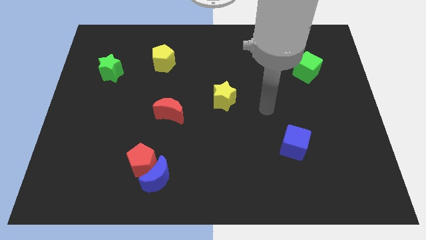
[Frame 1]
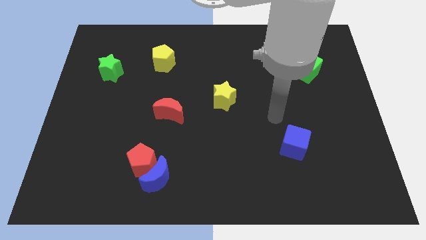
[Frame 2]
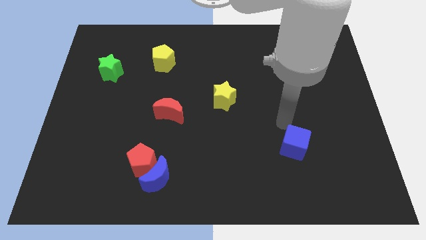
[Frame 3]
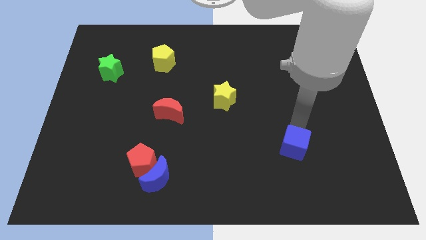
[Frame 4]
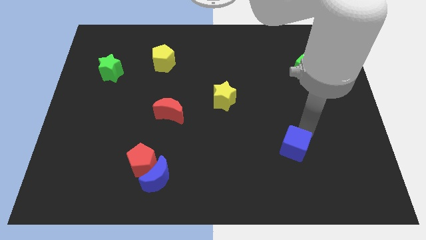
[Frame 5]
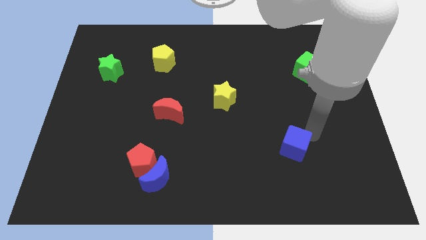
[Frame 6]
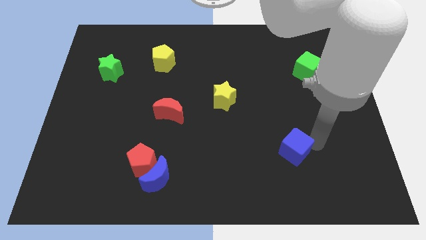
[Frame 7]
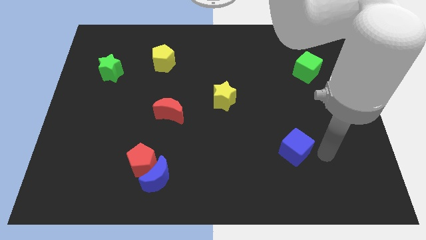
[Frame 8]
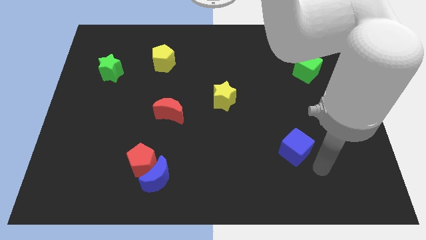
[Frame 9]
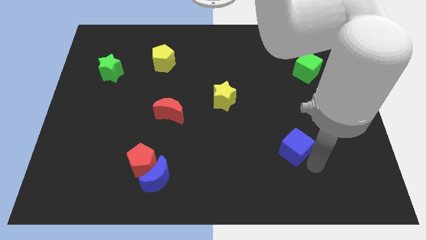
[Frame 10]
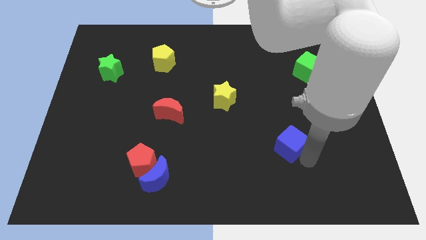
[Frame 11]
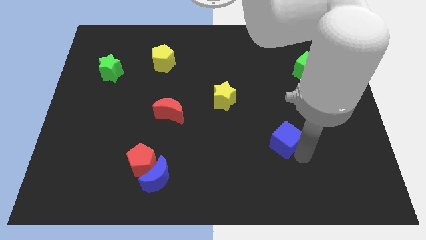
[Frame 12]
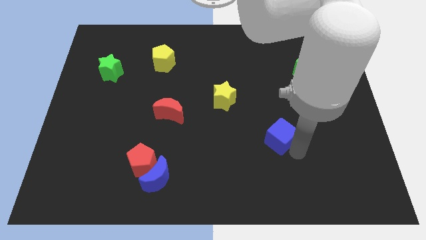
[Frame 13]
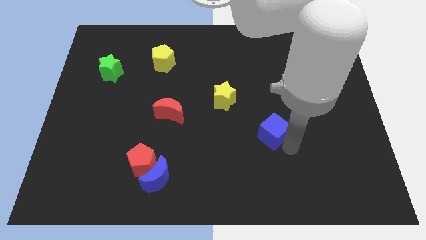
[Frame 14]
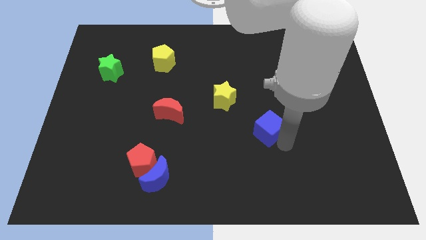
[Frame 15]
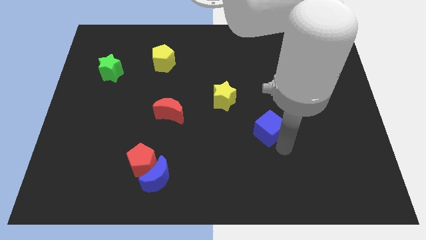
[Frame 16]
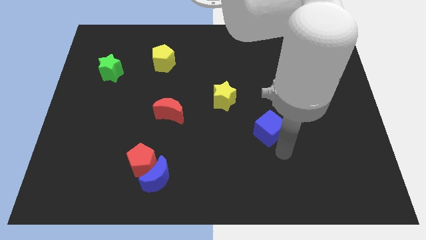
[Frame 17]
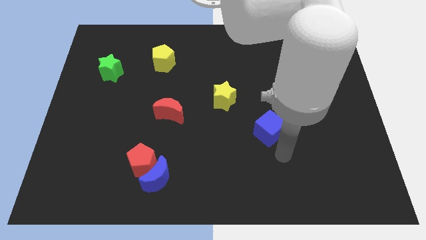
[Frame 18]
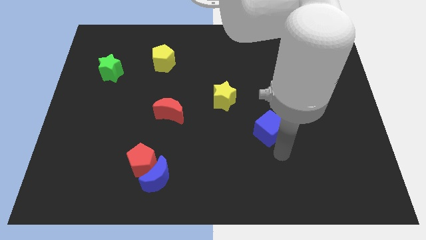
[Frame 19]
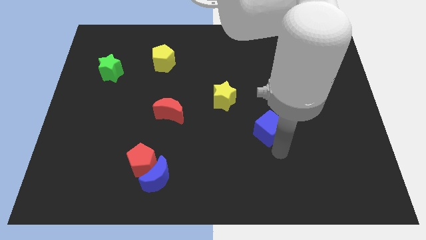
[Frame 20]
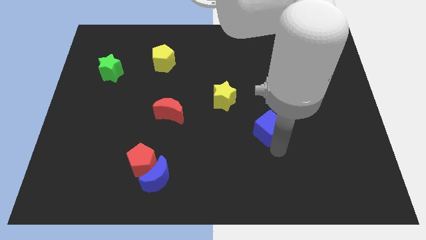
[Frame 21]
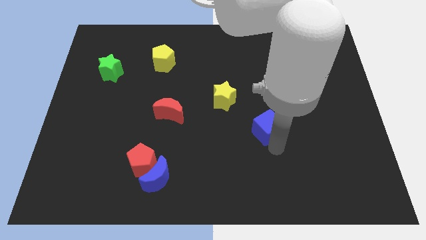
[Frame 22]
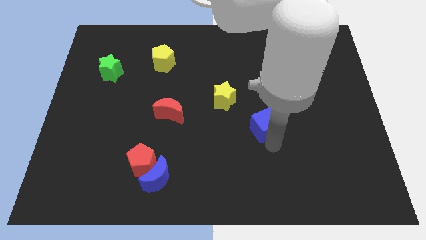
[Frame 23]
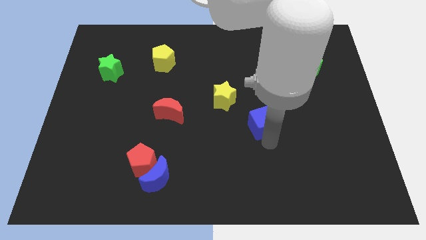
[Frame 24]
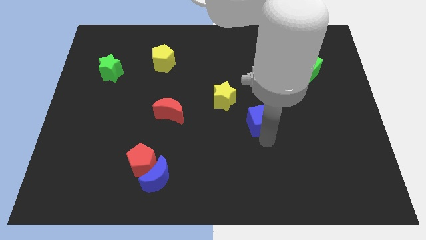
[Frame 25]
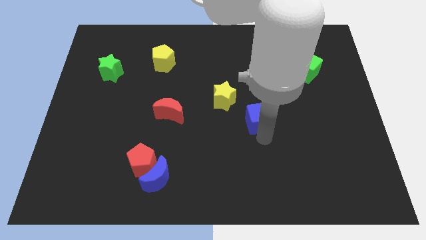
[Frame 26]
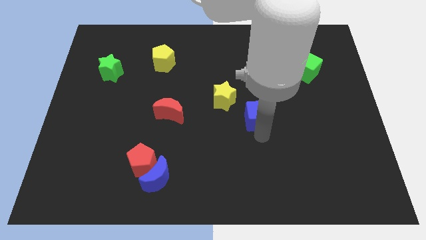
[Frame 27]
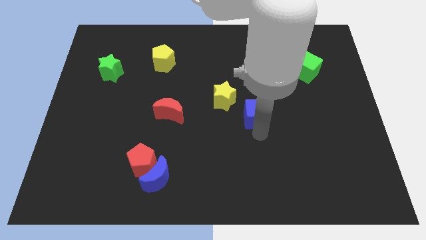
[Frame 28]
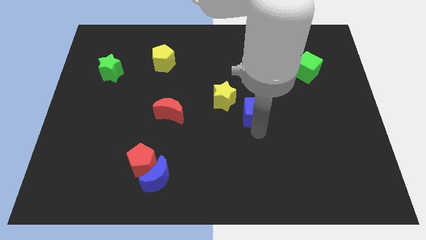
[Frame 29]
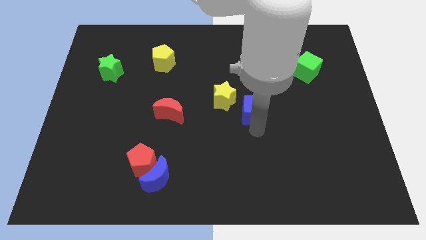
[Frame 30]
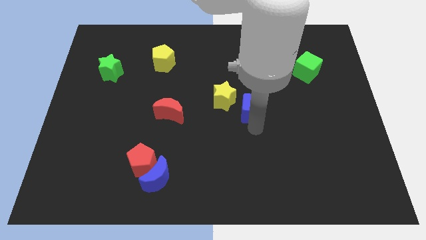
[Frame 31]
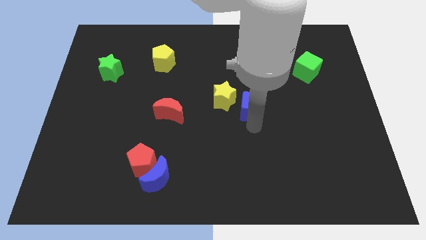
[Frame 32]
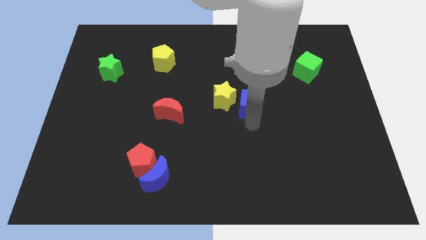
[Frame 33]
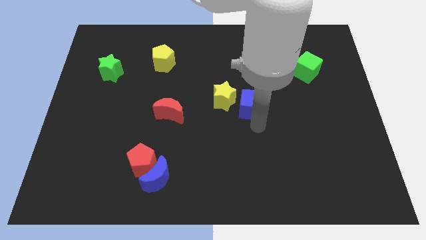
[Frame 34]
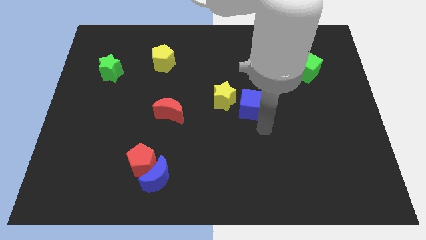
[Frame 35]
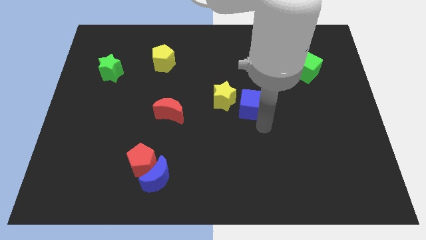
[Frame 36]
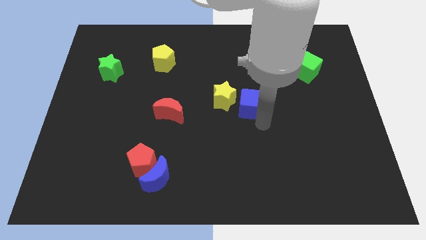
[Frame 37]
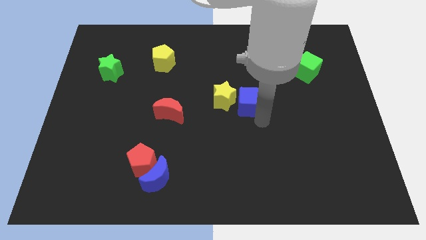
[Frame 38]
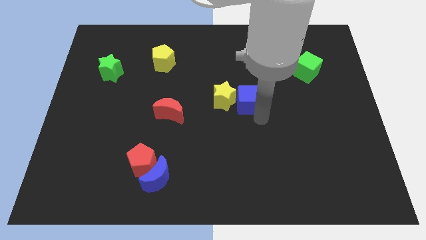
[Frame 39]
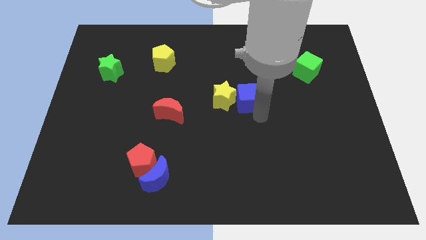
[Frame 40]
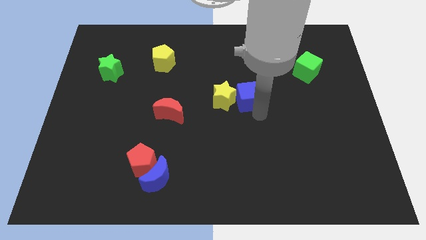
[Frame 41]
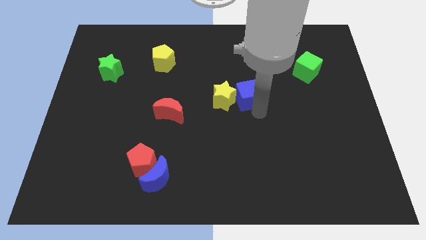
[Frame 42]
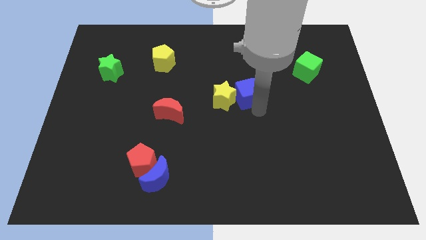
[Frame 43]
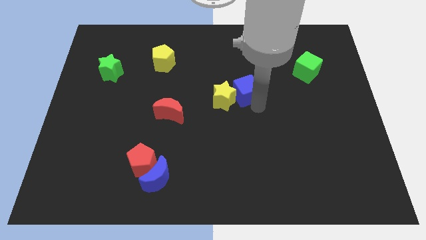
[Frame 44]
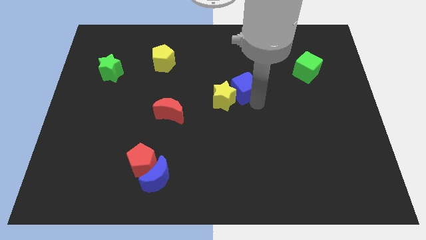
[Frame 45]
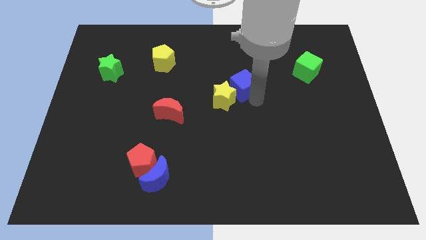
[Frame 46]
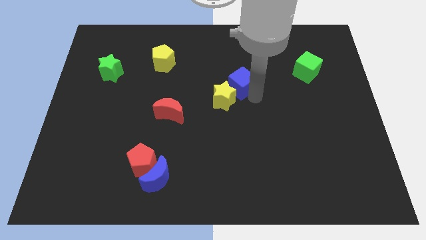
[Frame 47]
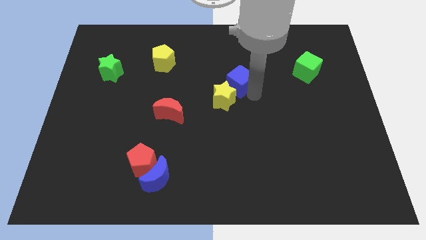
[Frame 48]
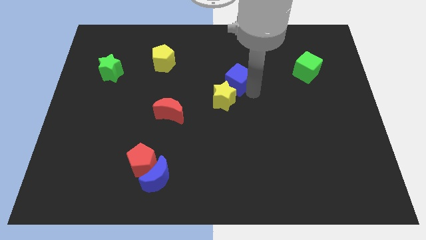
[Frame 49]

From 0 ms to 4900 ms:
push the blue cube up and left

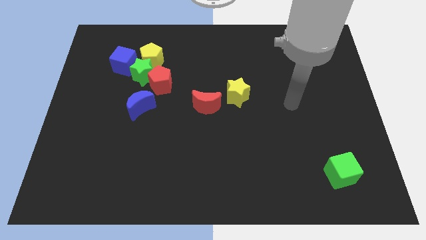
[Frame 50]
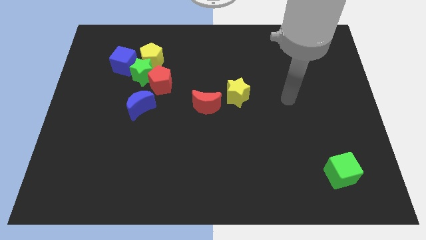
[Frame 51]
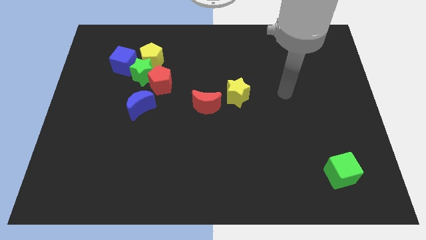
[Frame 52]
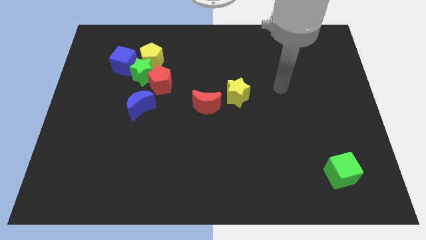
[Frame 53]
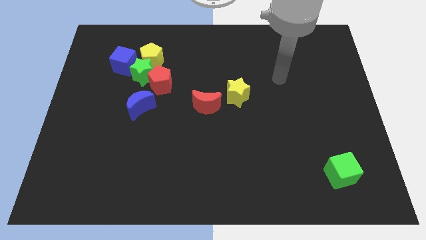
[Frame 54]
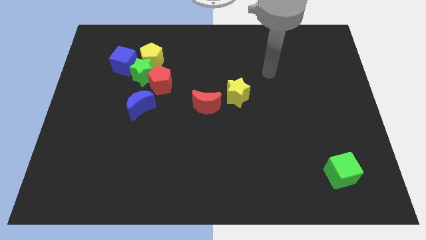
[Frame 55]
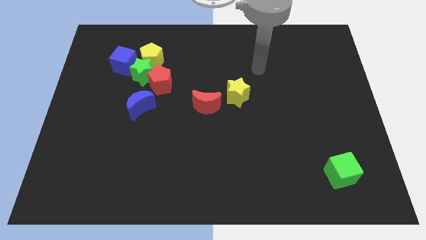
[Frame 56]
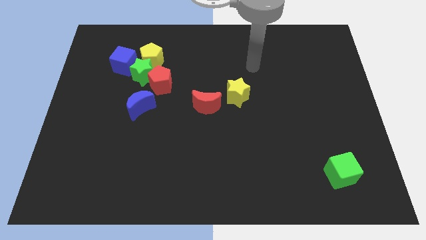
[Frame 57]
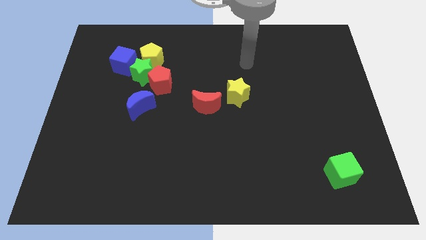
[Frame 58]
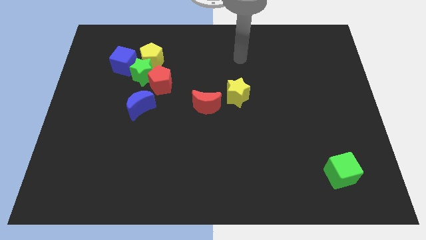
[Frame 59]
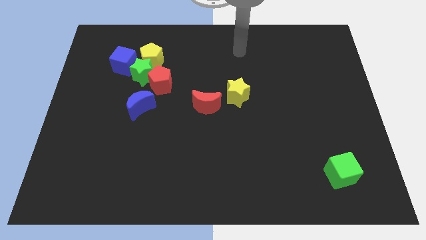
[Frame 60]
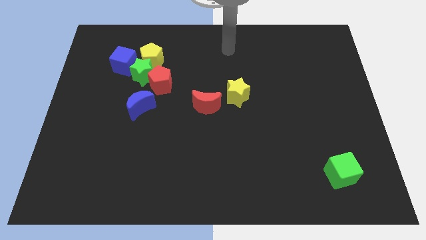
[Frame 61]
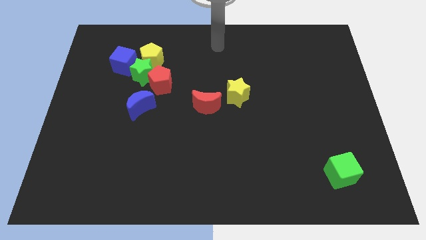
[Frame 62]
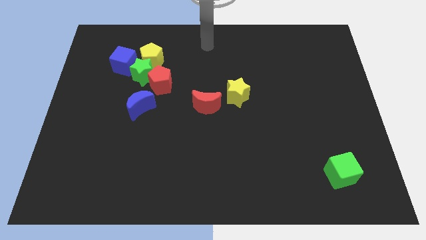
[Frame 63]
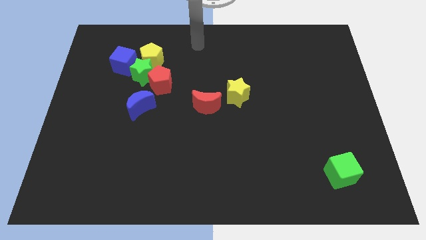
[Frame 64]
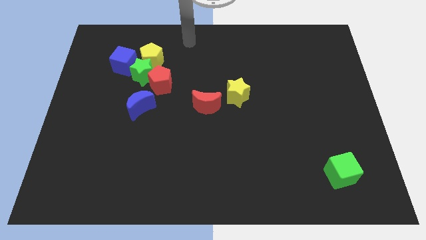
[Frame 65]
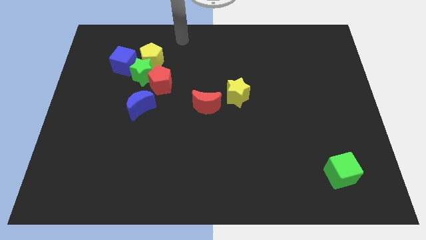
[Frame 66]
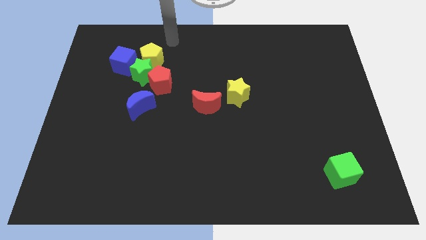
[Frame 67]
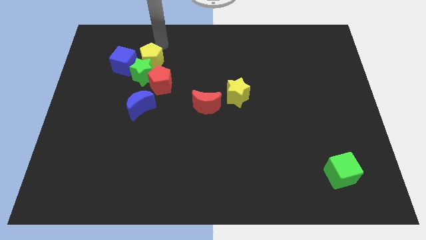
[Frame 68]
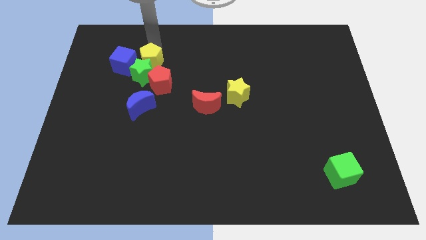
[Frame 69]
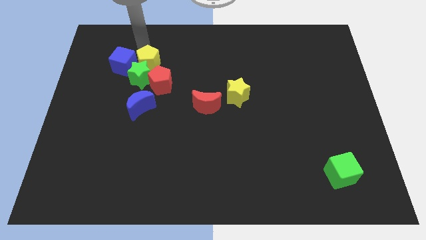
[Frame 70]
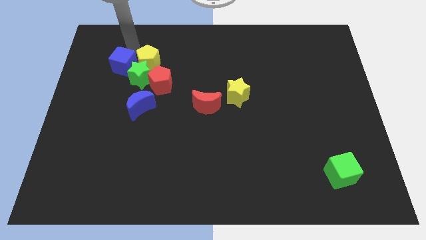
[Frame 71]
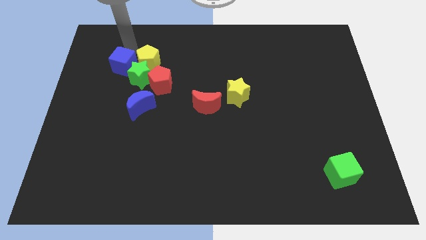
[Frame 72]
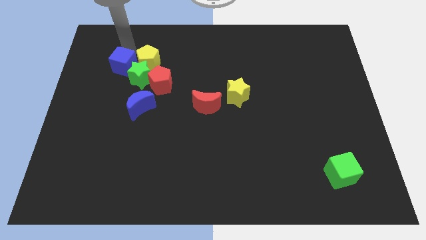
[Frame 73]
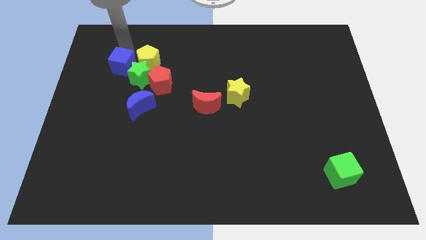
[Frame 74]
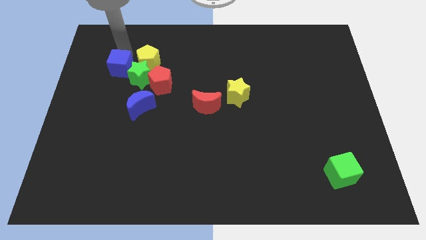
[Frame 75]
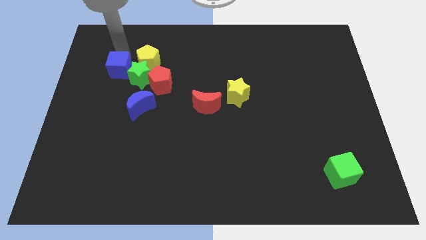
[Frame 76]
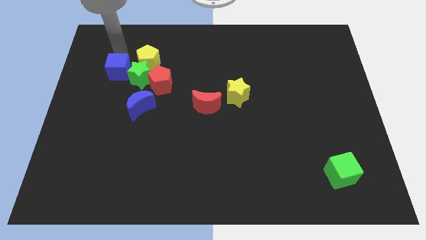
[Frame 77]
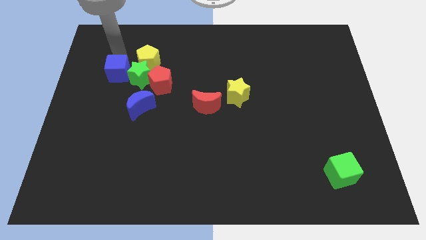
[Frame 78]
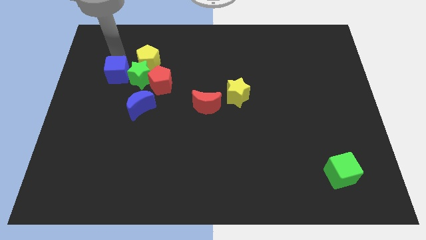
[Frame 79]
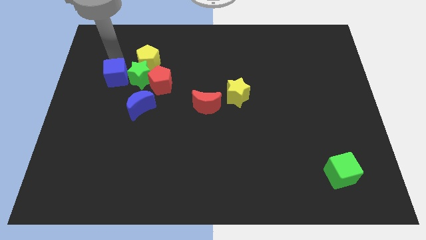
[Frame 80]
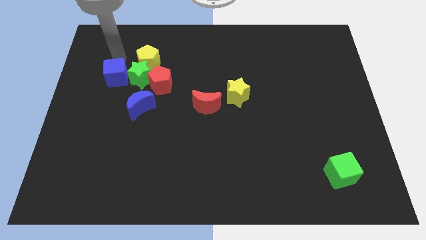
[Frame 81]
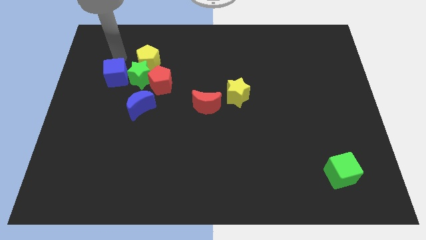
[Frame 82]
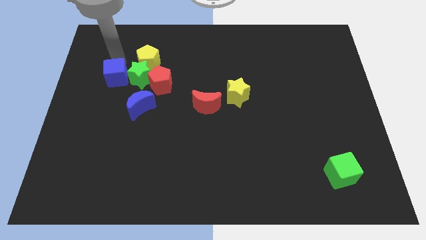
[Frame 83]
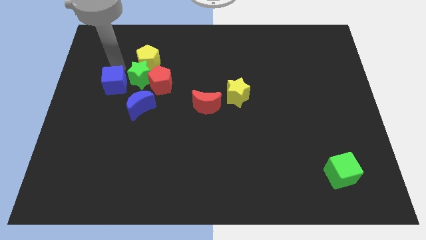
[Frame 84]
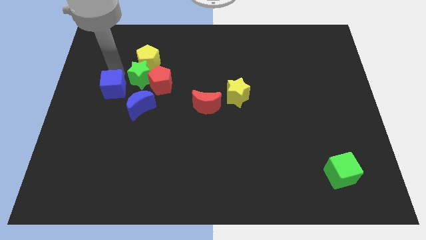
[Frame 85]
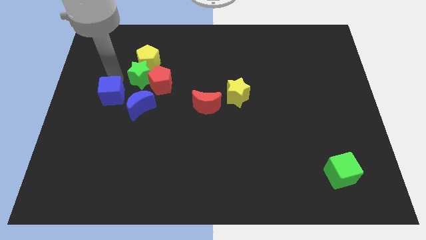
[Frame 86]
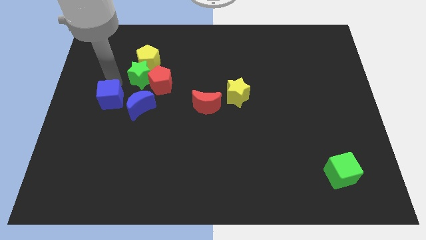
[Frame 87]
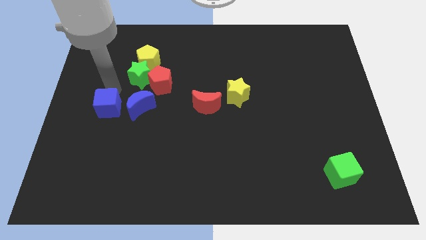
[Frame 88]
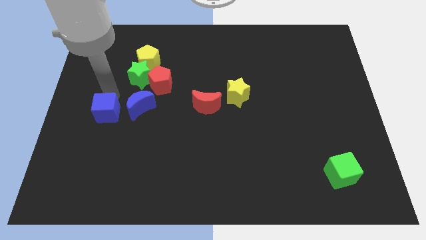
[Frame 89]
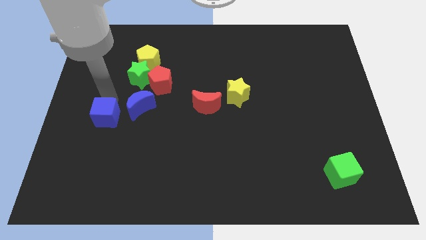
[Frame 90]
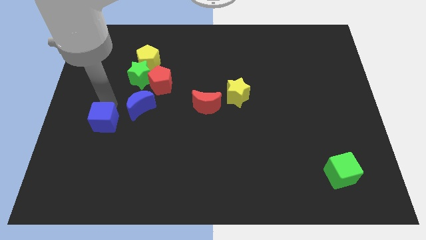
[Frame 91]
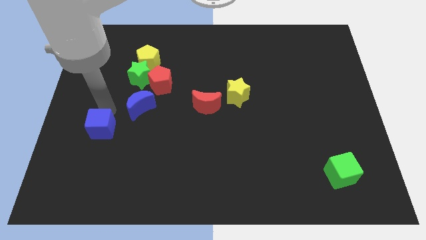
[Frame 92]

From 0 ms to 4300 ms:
push the blue cube down
